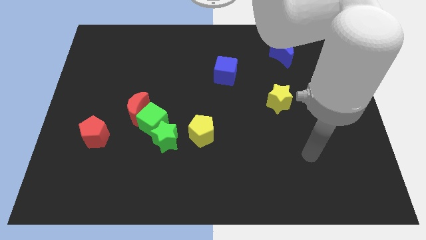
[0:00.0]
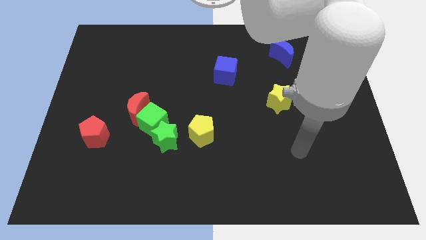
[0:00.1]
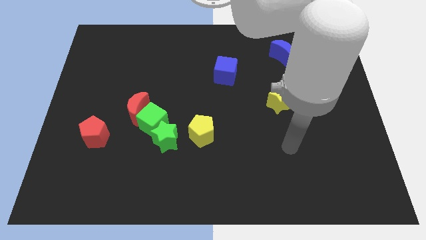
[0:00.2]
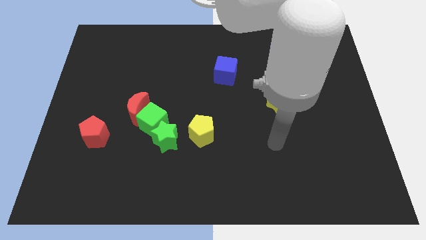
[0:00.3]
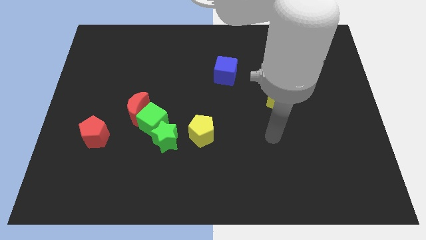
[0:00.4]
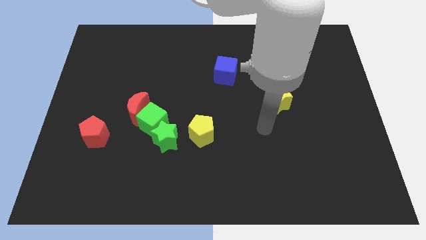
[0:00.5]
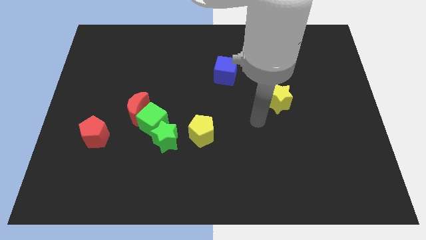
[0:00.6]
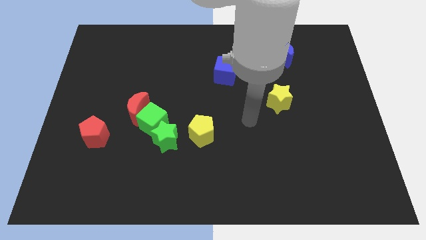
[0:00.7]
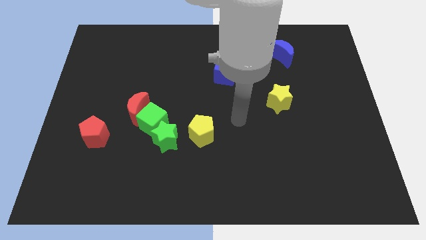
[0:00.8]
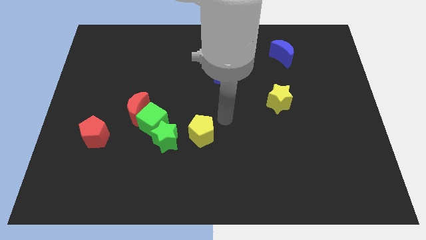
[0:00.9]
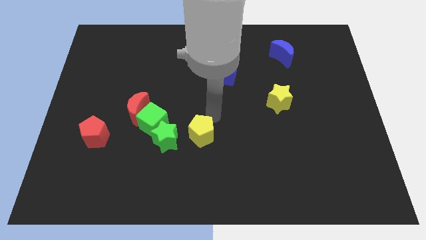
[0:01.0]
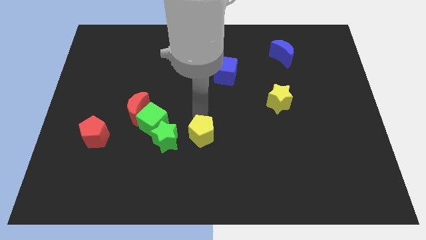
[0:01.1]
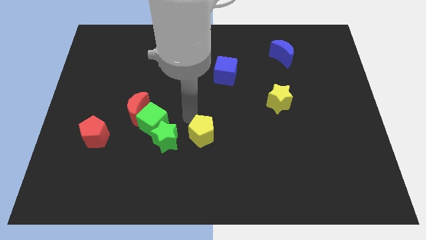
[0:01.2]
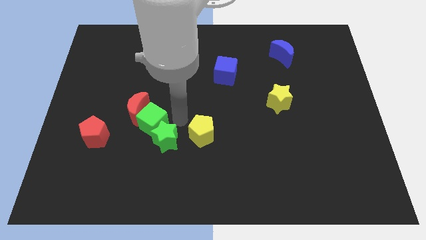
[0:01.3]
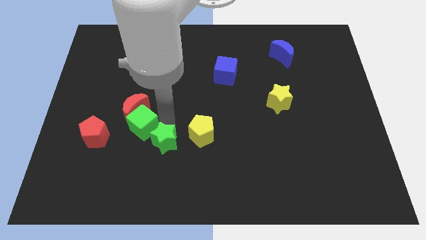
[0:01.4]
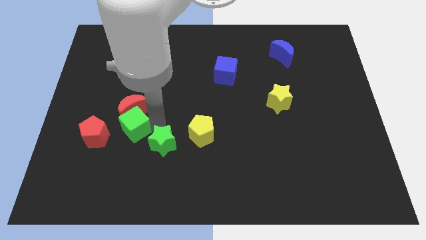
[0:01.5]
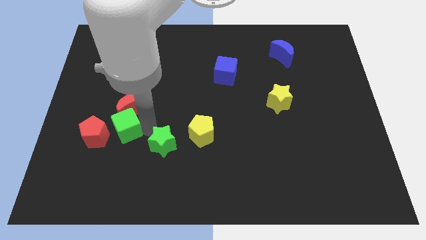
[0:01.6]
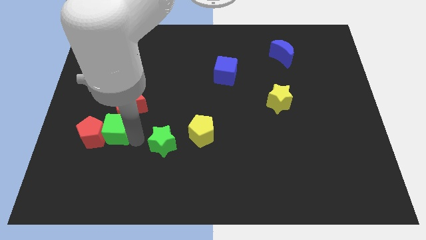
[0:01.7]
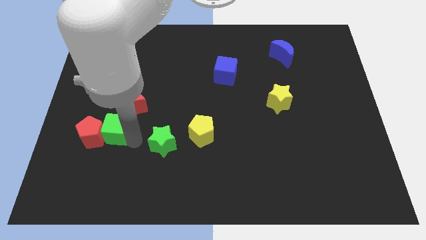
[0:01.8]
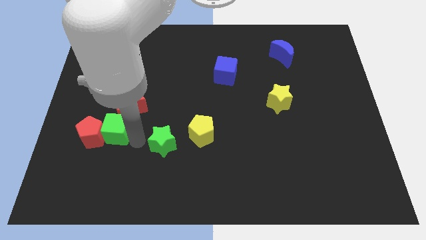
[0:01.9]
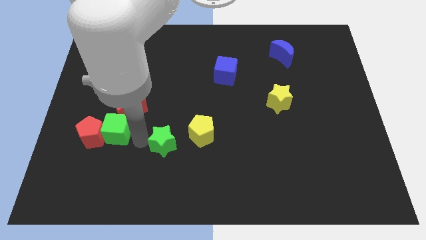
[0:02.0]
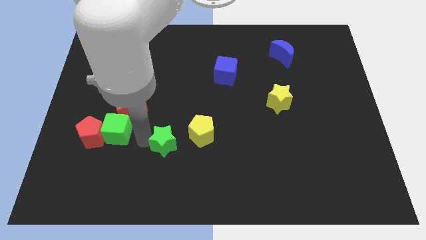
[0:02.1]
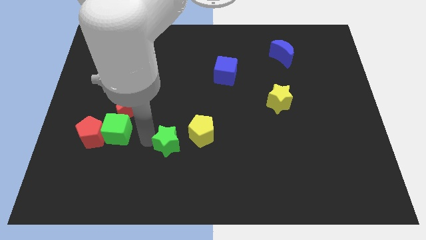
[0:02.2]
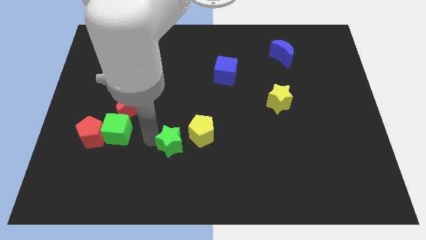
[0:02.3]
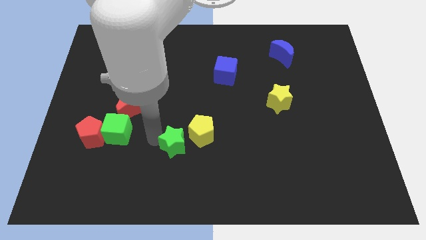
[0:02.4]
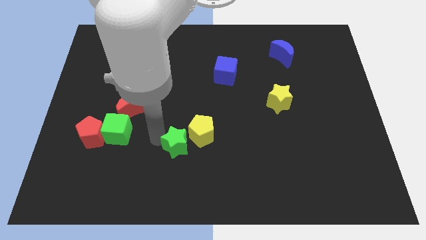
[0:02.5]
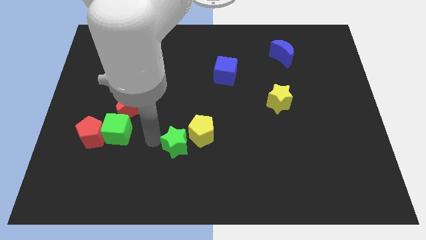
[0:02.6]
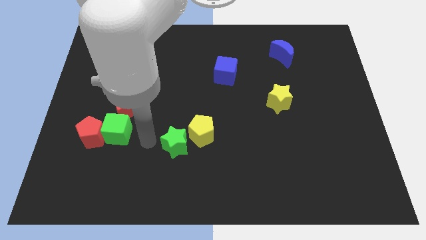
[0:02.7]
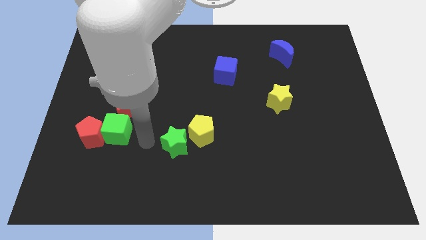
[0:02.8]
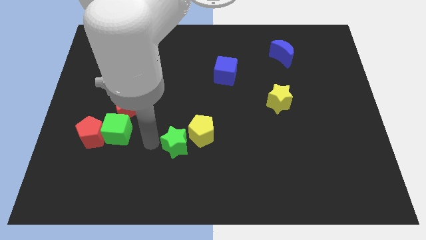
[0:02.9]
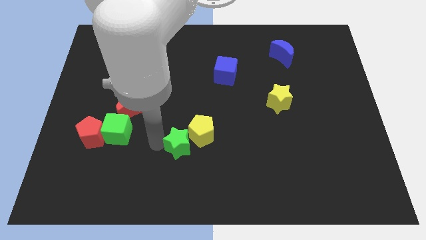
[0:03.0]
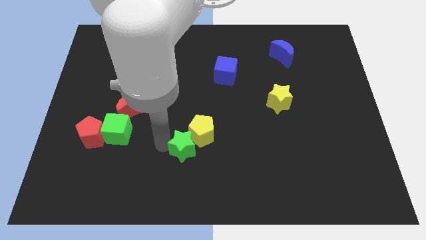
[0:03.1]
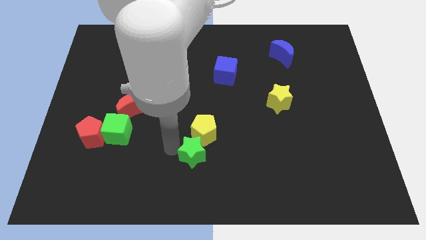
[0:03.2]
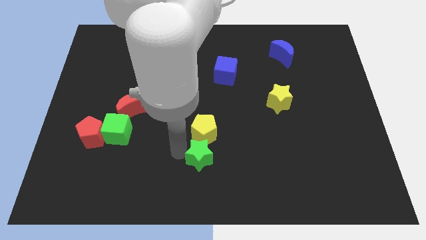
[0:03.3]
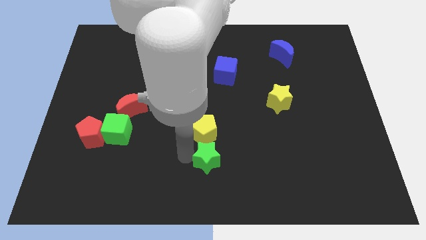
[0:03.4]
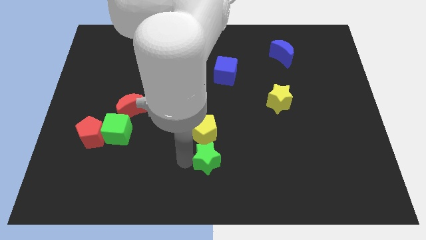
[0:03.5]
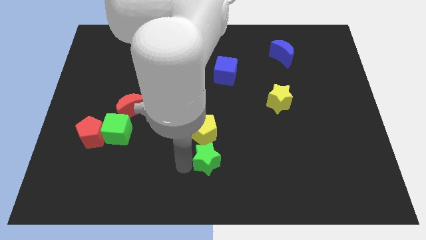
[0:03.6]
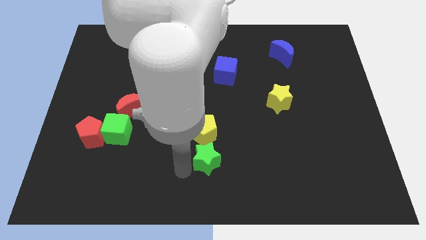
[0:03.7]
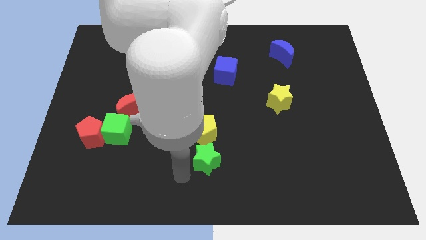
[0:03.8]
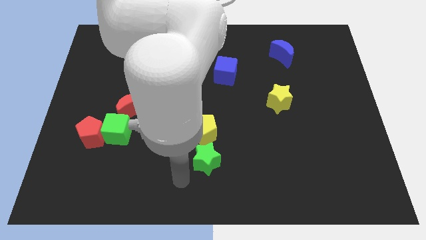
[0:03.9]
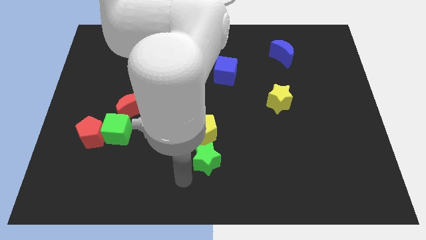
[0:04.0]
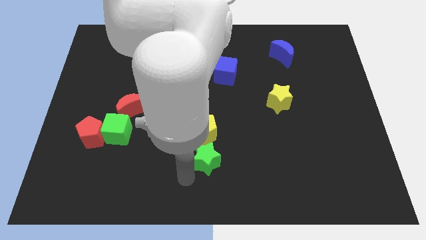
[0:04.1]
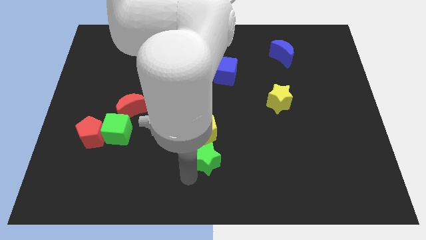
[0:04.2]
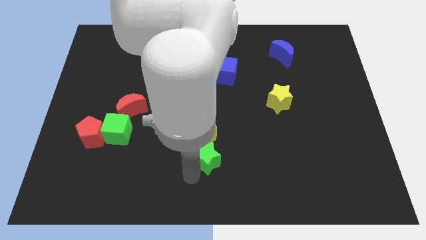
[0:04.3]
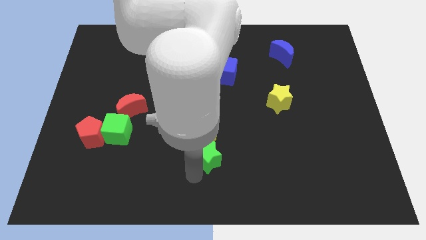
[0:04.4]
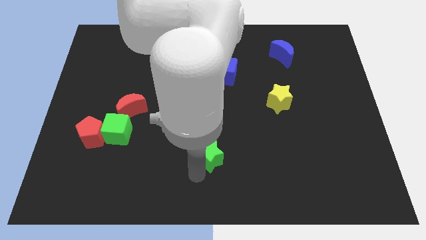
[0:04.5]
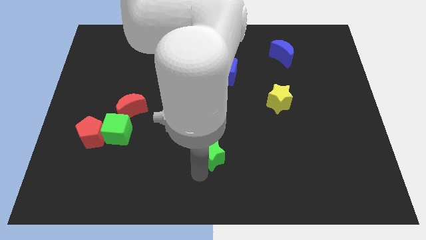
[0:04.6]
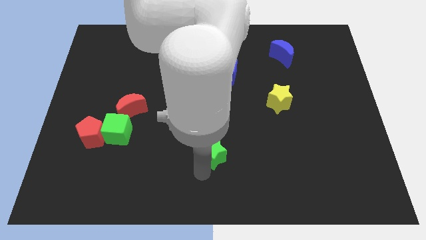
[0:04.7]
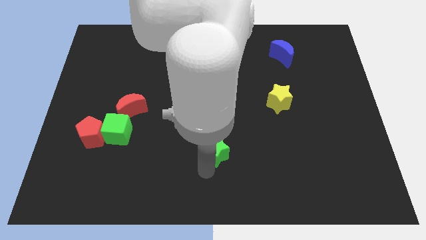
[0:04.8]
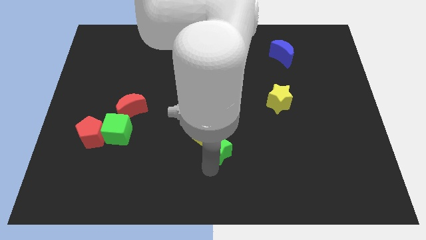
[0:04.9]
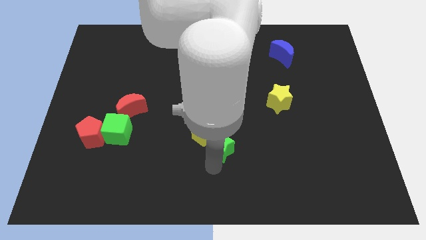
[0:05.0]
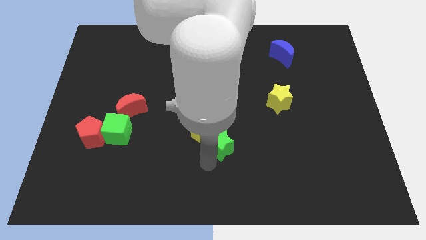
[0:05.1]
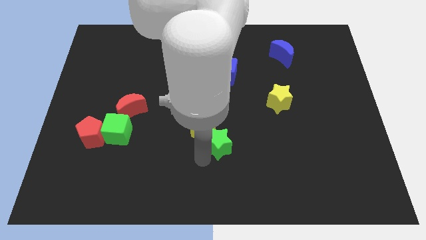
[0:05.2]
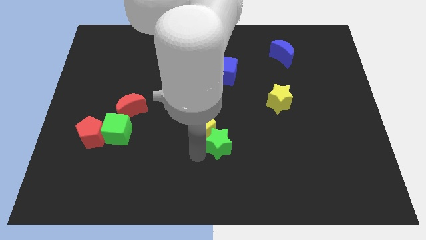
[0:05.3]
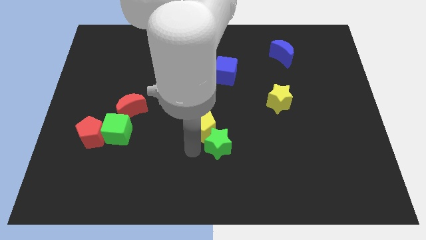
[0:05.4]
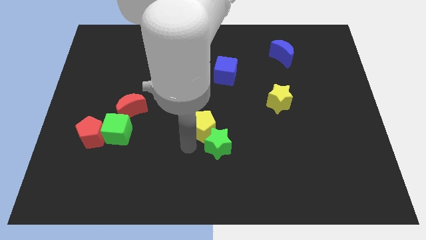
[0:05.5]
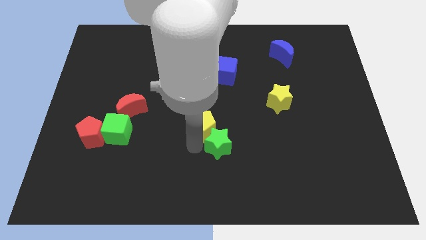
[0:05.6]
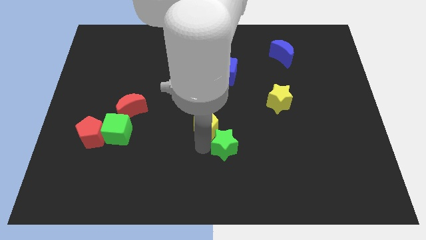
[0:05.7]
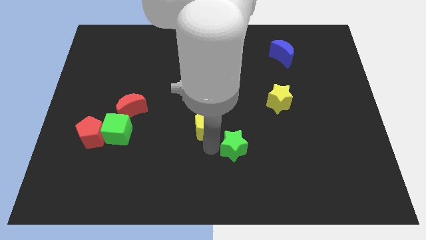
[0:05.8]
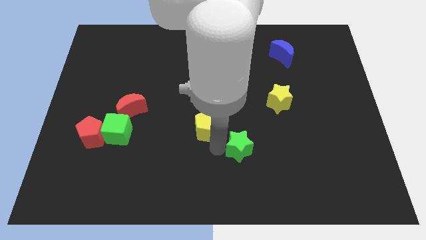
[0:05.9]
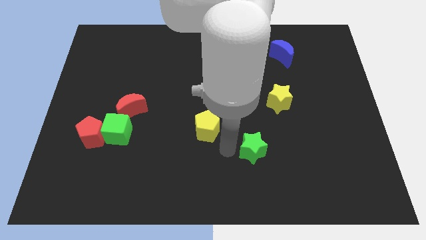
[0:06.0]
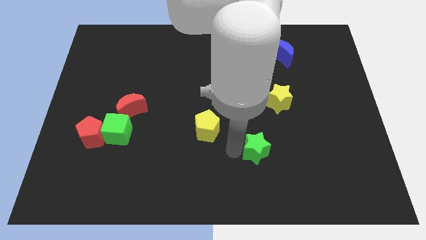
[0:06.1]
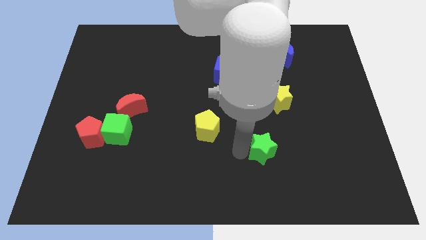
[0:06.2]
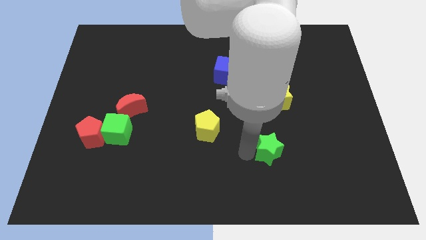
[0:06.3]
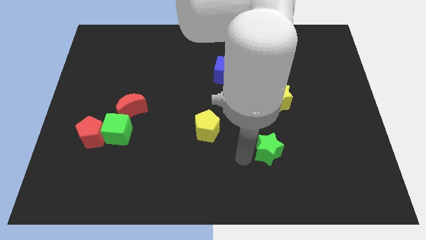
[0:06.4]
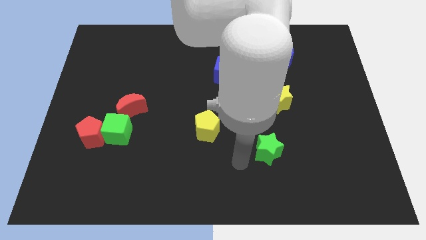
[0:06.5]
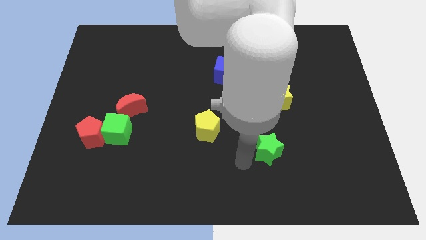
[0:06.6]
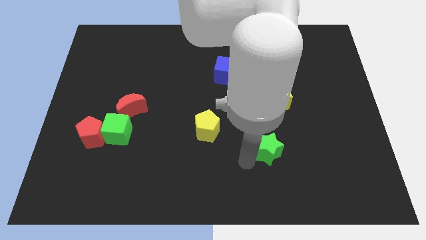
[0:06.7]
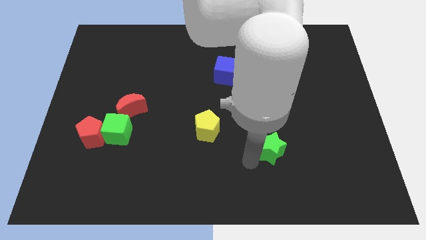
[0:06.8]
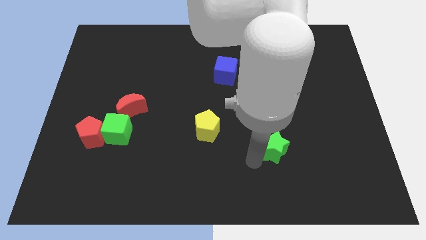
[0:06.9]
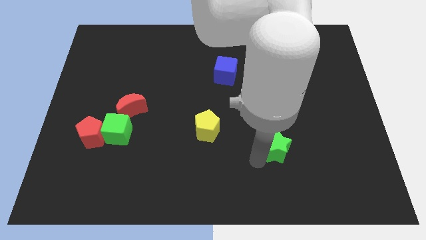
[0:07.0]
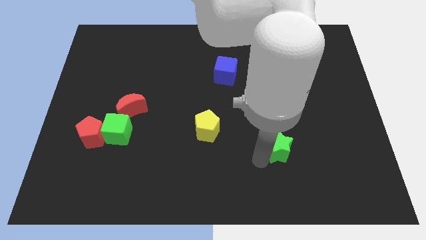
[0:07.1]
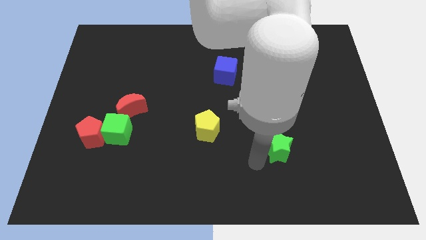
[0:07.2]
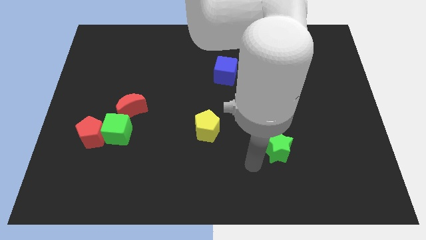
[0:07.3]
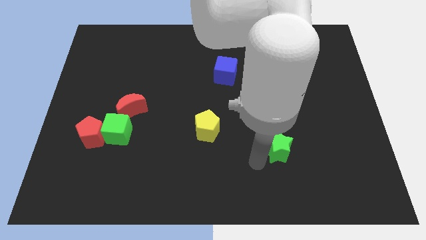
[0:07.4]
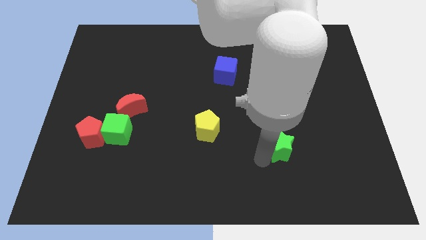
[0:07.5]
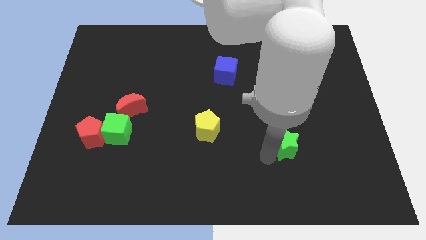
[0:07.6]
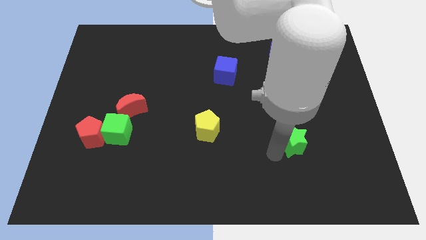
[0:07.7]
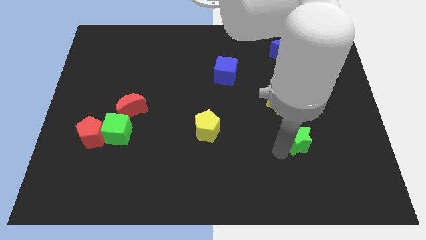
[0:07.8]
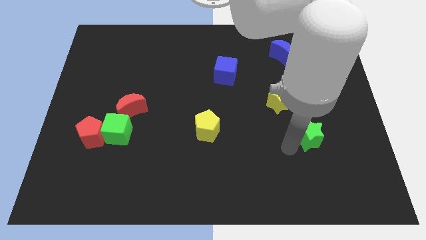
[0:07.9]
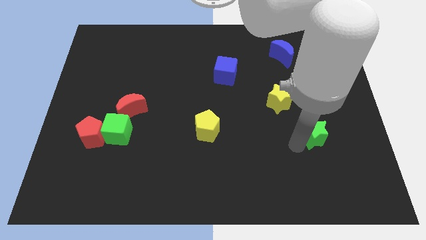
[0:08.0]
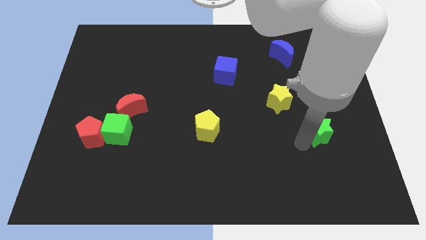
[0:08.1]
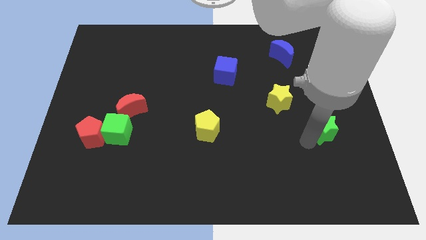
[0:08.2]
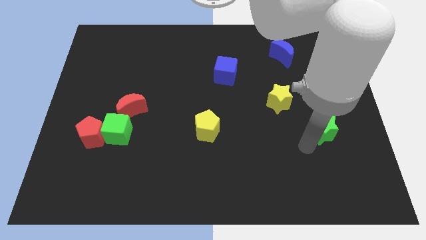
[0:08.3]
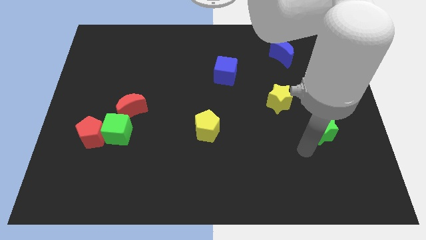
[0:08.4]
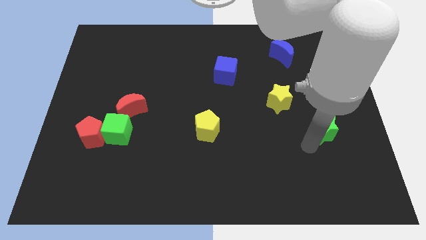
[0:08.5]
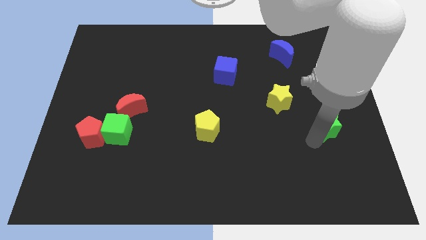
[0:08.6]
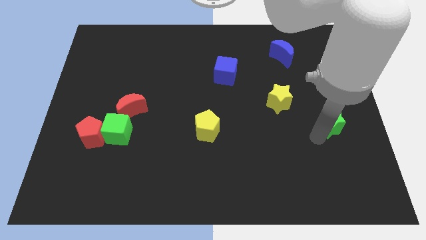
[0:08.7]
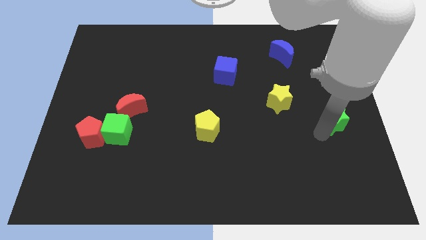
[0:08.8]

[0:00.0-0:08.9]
slide the green star to the right side of the board
